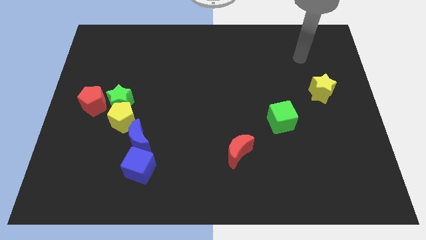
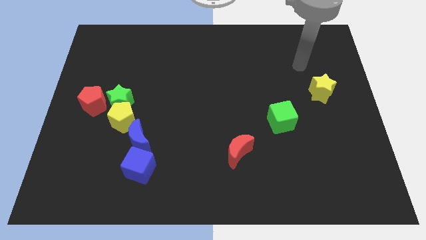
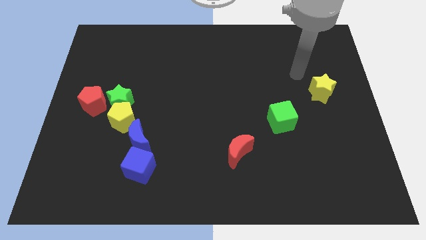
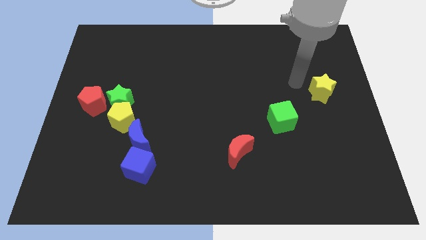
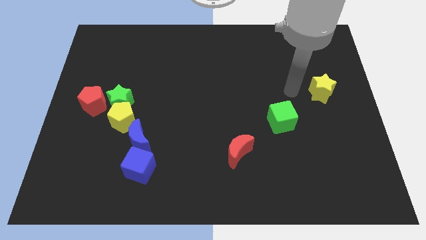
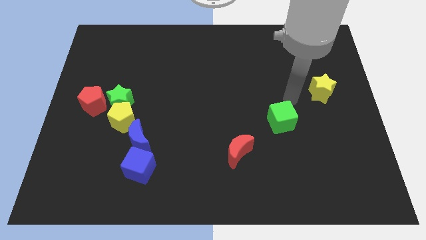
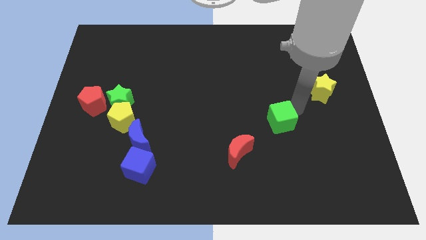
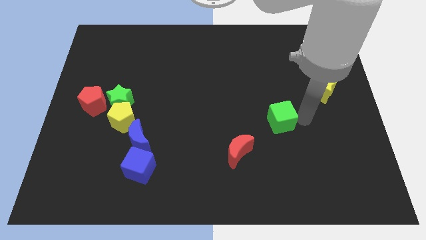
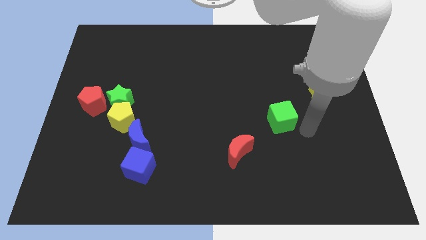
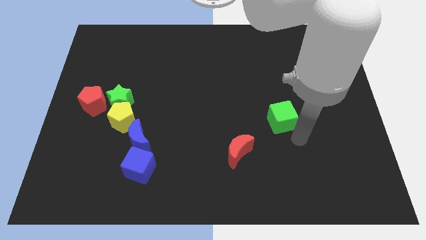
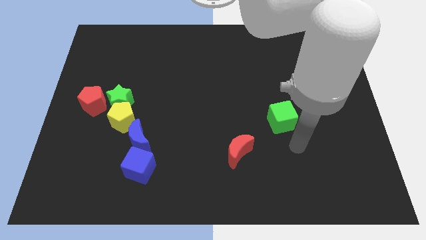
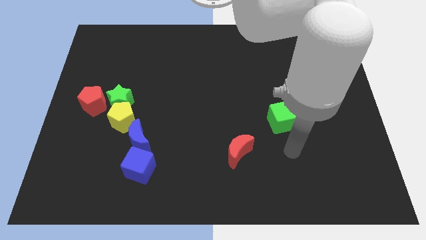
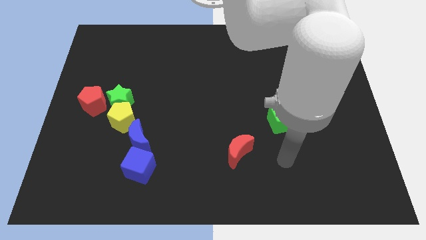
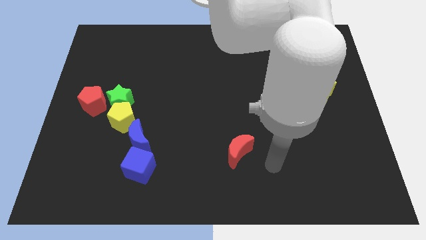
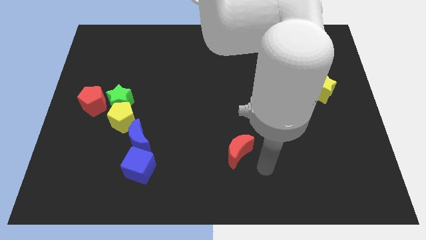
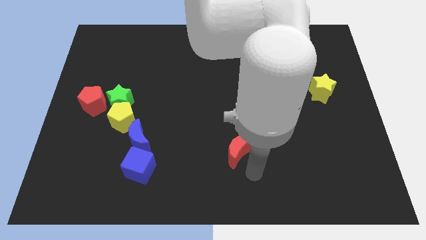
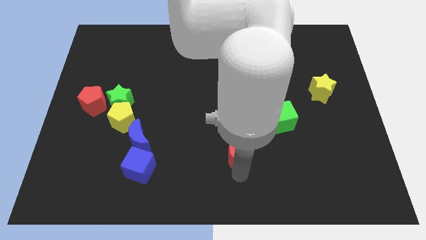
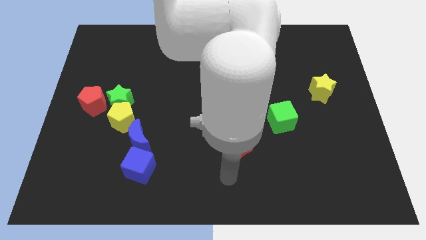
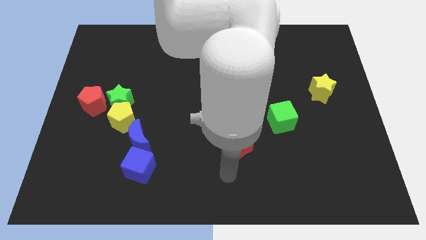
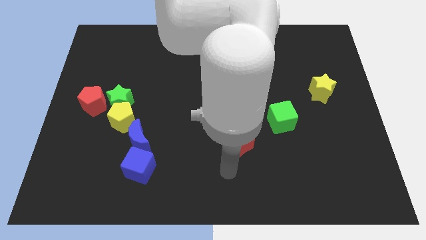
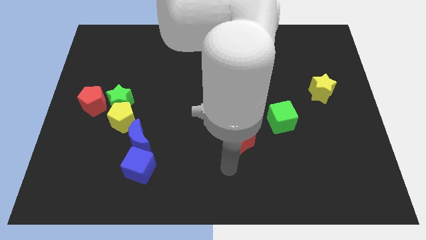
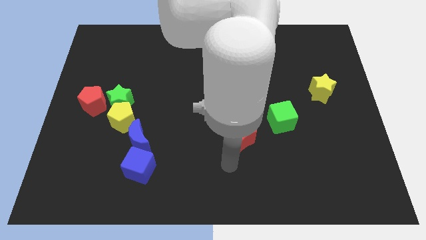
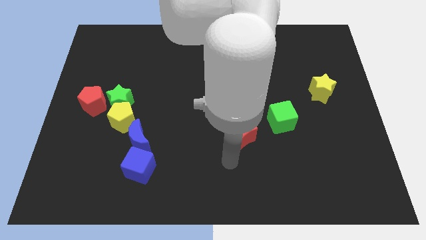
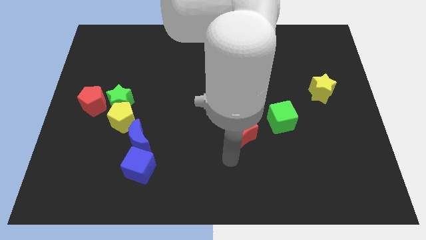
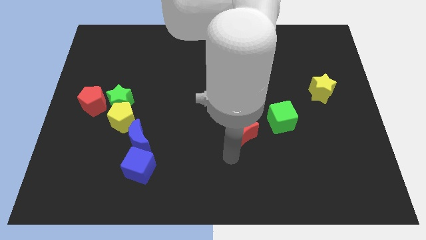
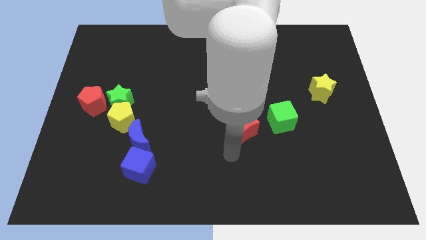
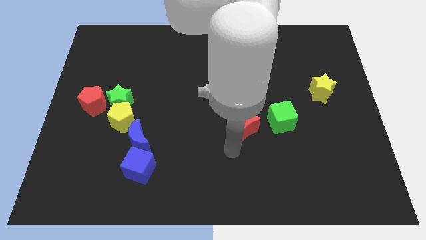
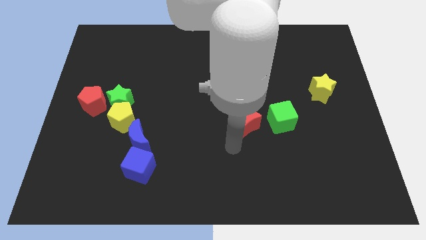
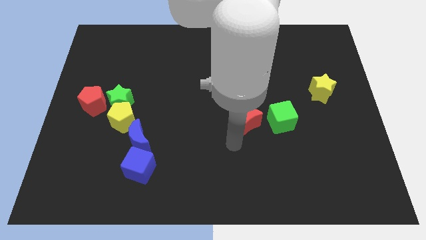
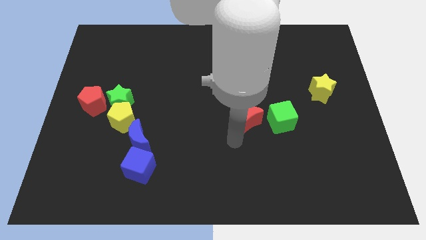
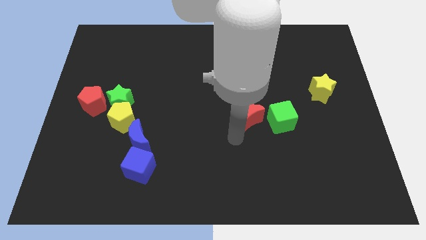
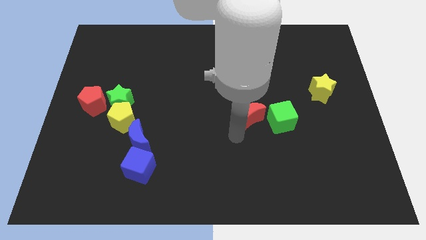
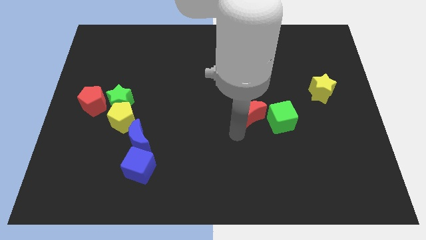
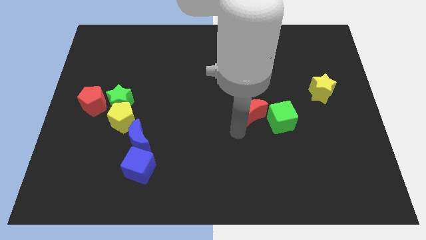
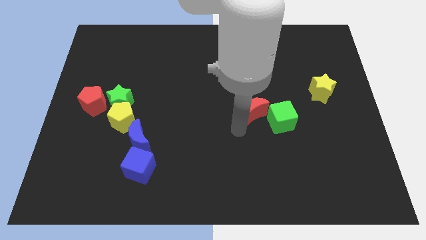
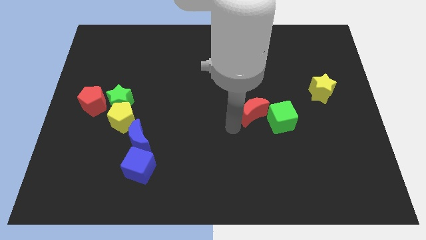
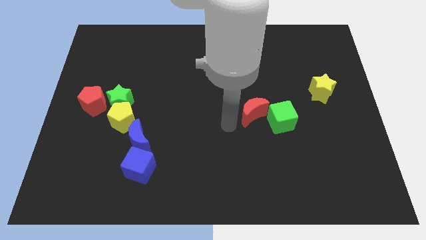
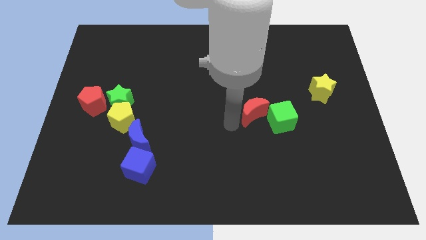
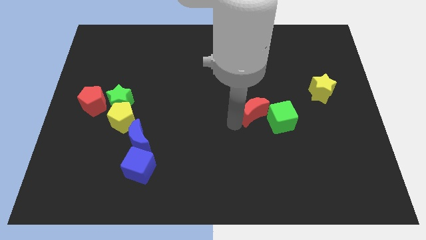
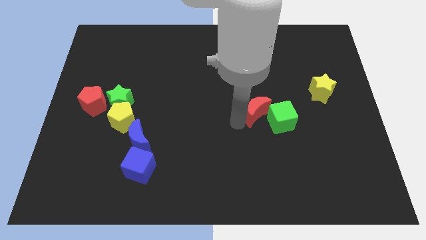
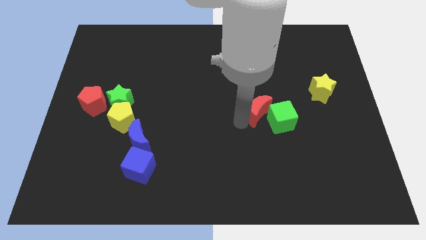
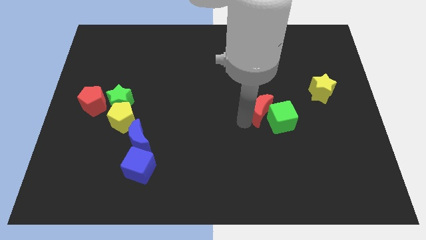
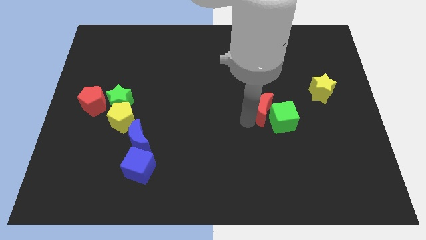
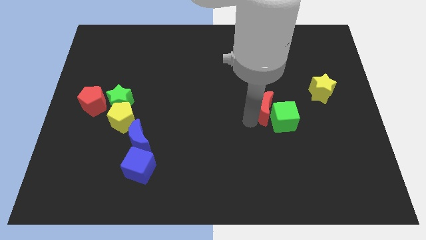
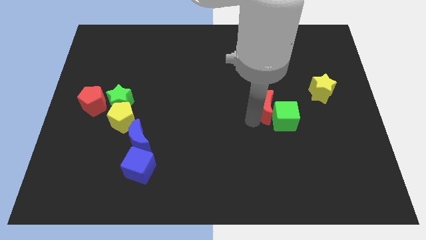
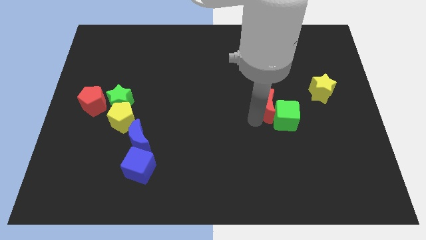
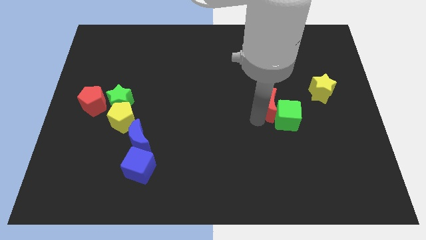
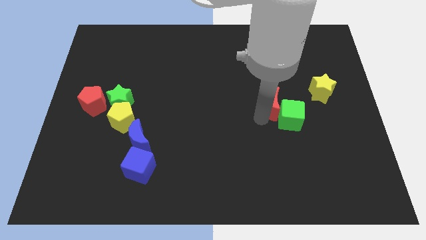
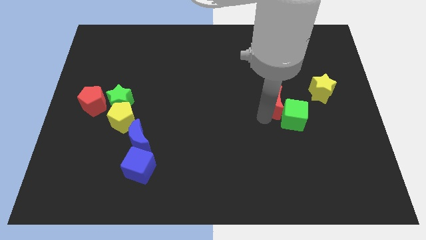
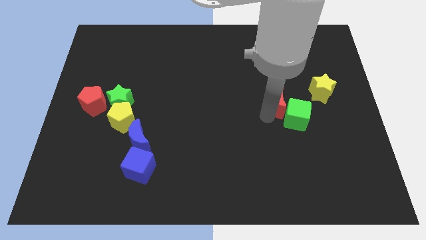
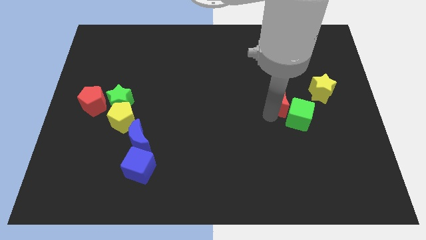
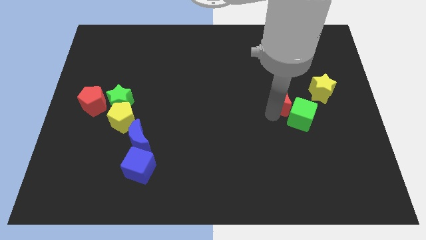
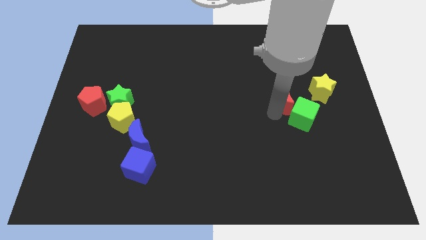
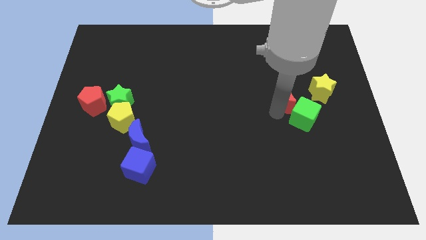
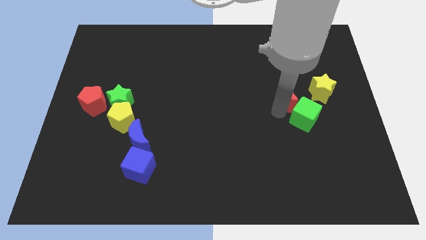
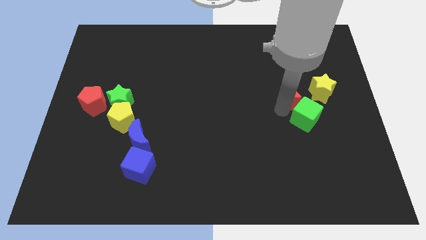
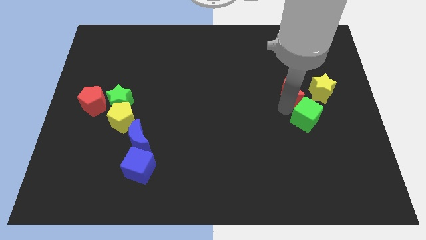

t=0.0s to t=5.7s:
push the red moon upwards and then right

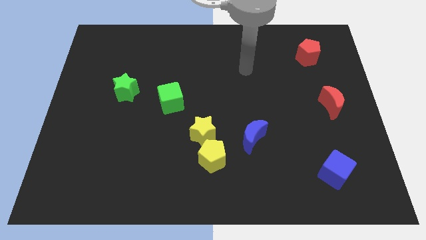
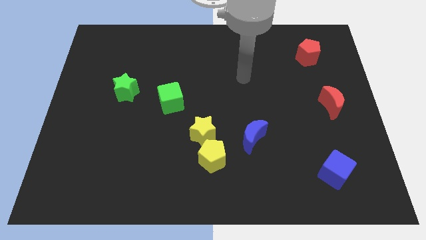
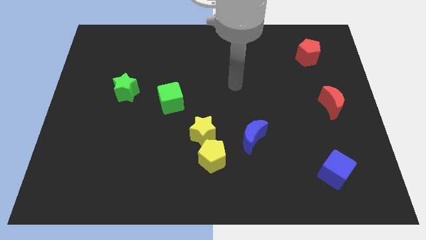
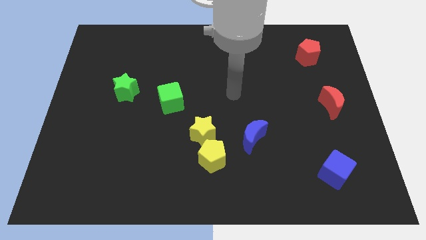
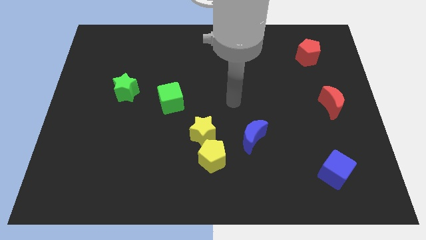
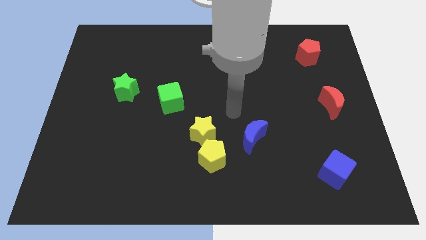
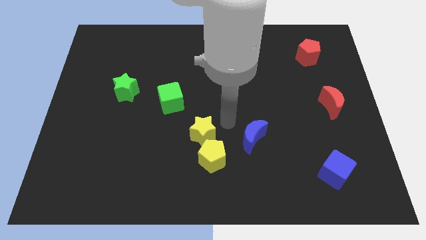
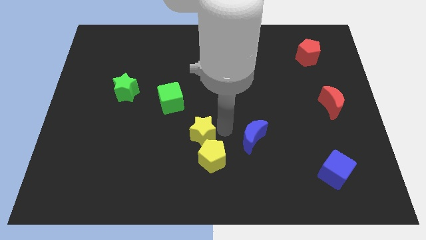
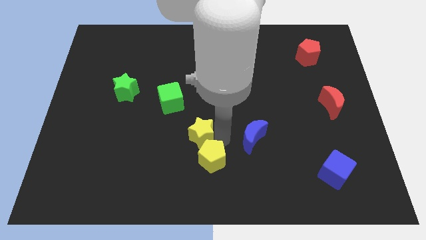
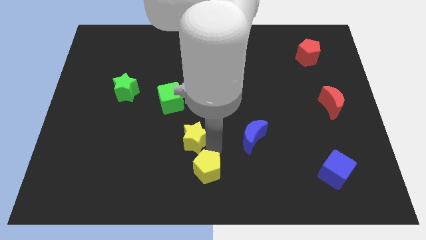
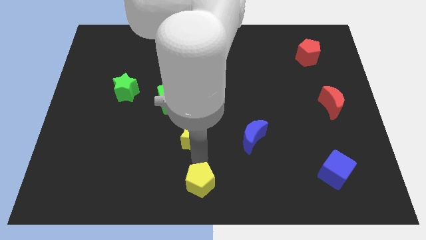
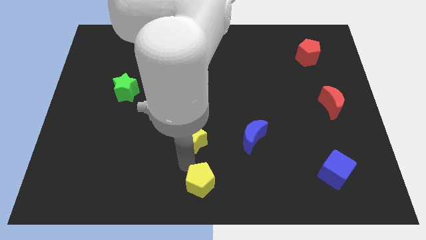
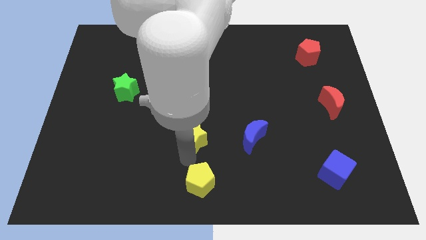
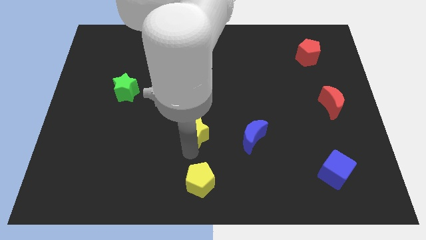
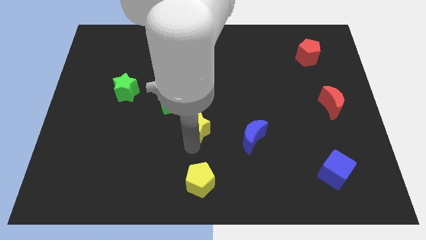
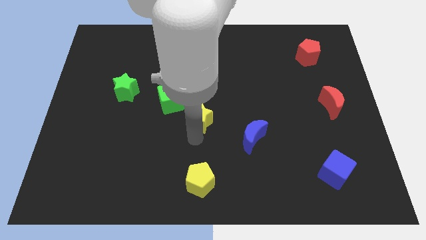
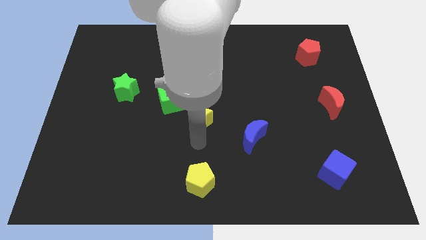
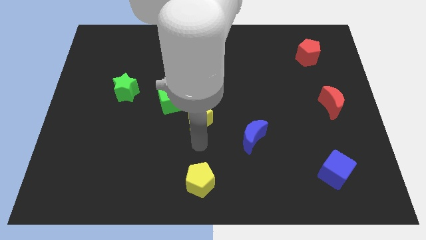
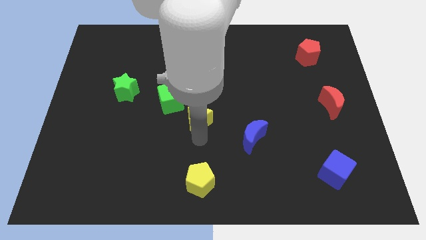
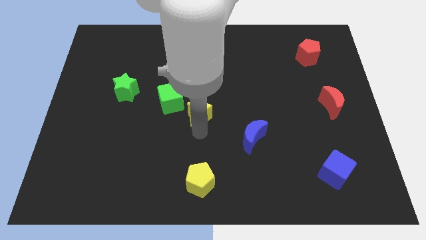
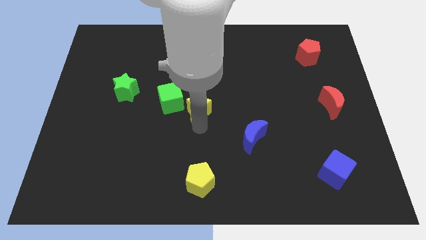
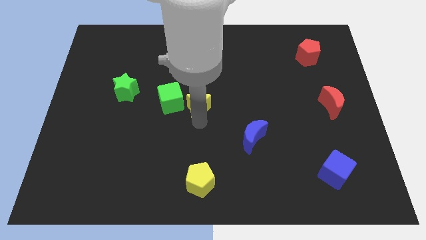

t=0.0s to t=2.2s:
slightly push the yellow star up
